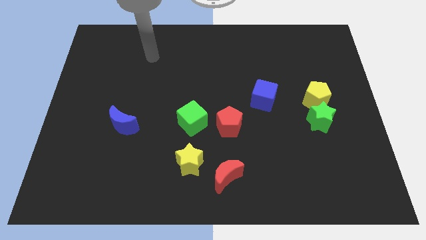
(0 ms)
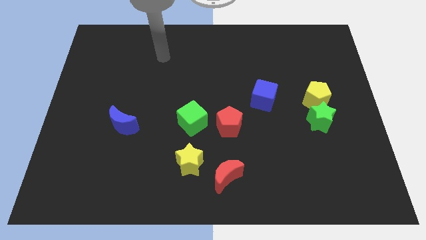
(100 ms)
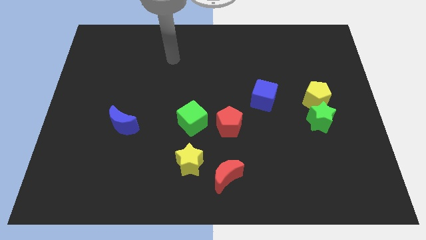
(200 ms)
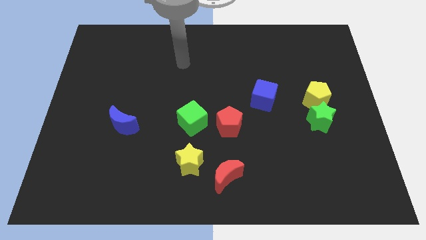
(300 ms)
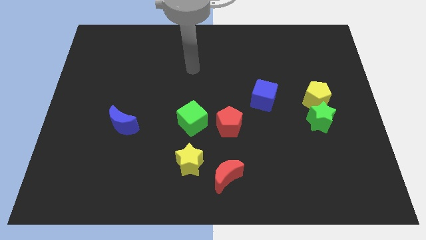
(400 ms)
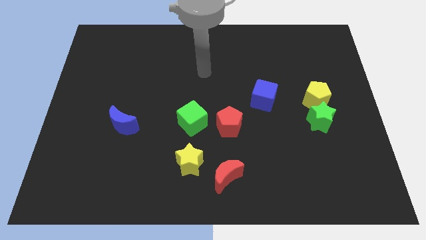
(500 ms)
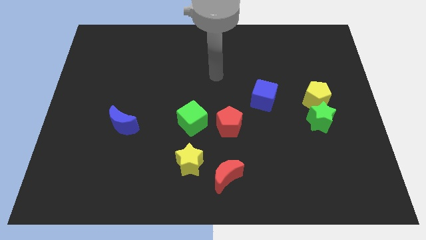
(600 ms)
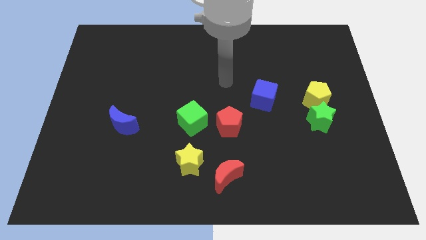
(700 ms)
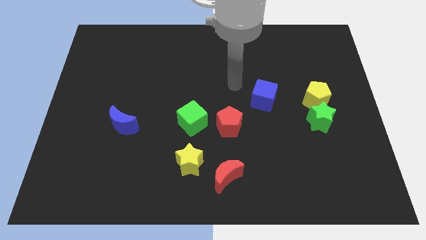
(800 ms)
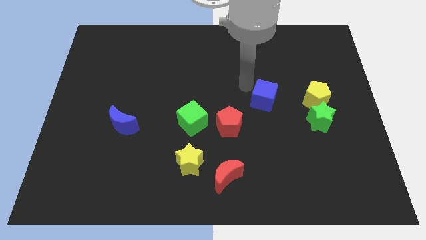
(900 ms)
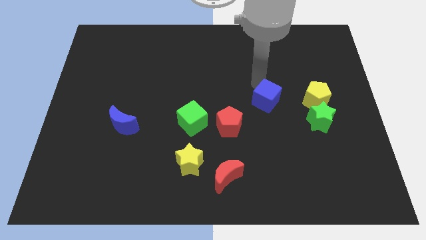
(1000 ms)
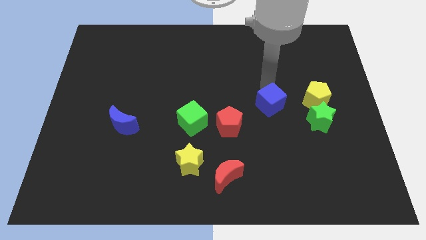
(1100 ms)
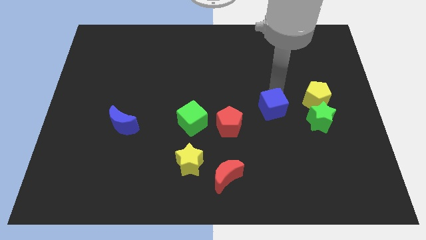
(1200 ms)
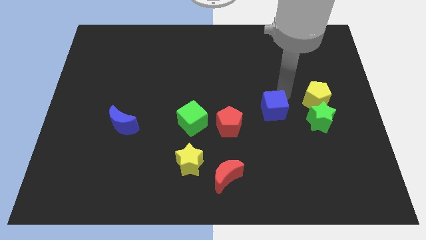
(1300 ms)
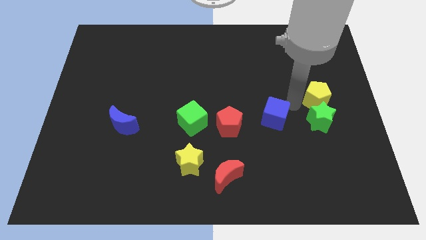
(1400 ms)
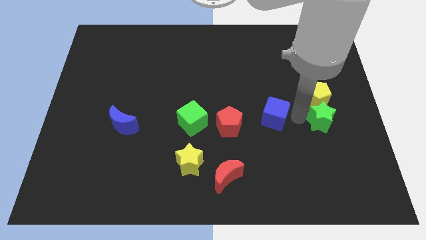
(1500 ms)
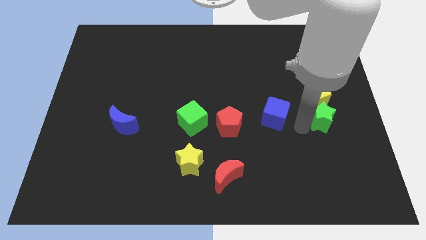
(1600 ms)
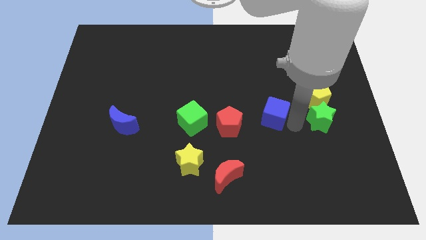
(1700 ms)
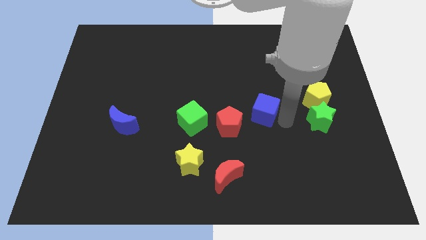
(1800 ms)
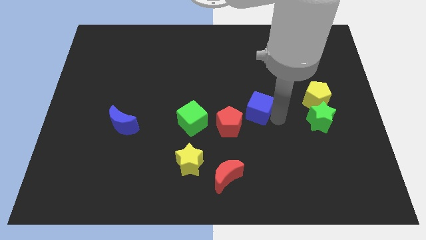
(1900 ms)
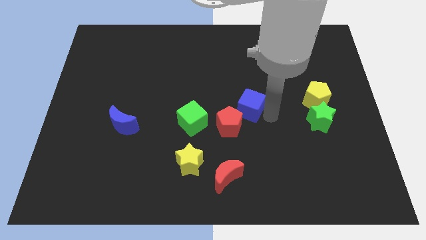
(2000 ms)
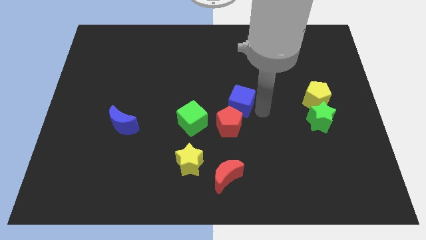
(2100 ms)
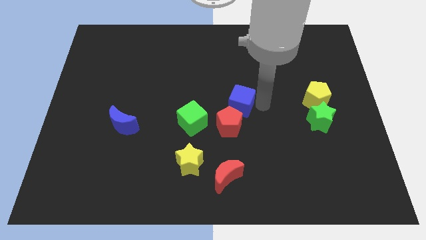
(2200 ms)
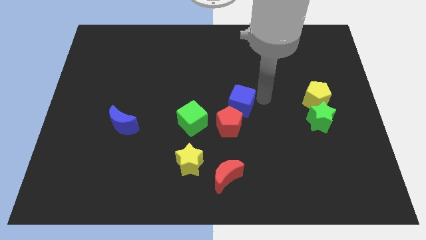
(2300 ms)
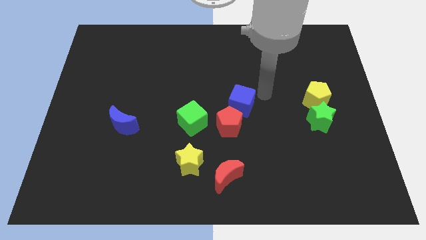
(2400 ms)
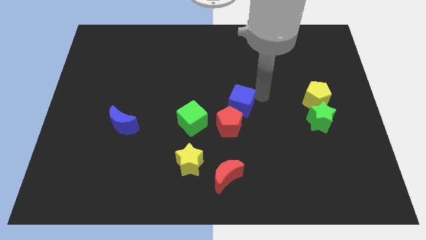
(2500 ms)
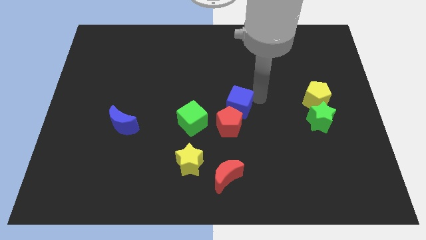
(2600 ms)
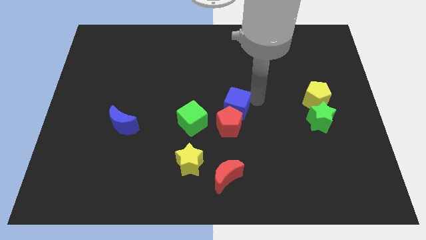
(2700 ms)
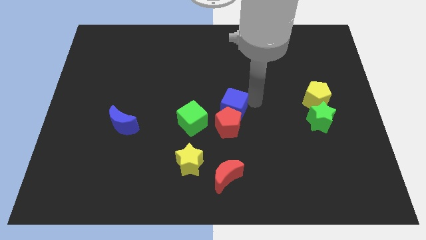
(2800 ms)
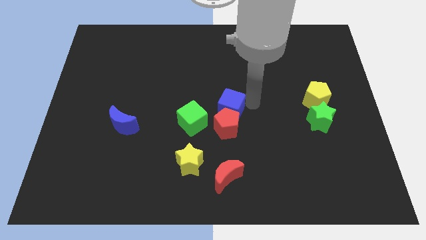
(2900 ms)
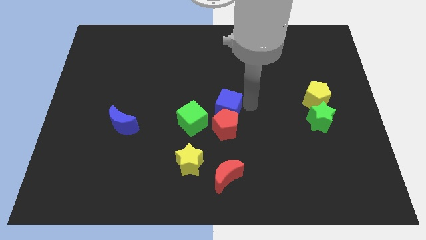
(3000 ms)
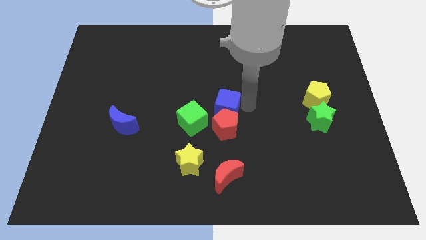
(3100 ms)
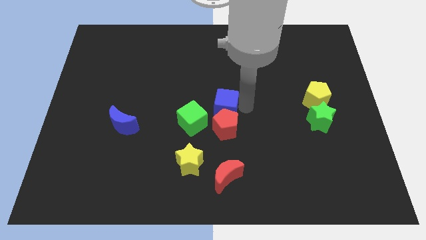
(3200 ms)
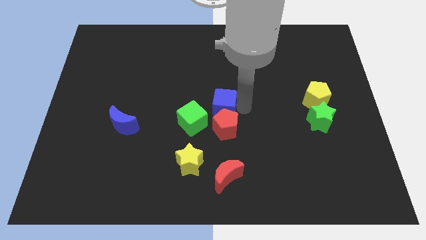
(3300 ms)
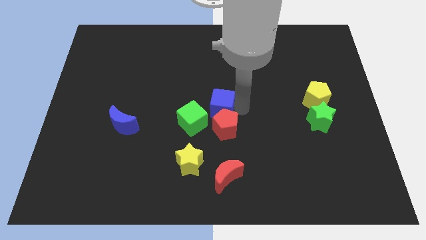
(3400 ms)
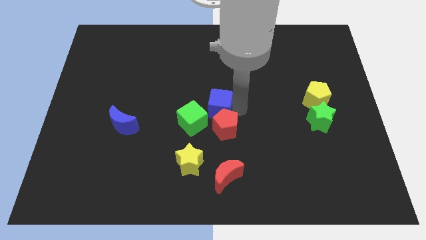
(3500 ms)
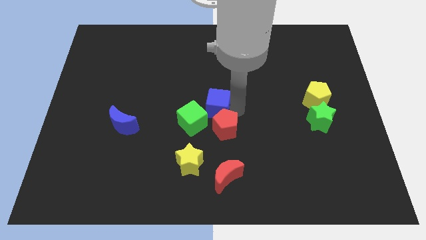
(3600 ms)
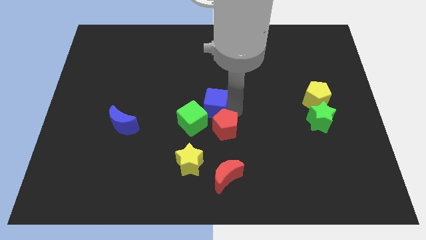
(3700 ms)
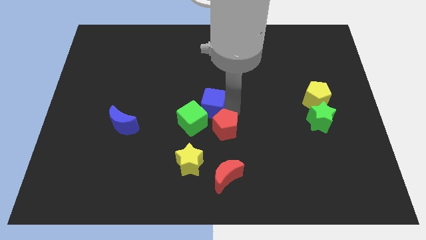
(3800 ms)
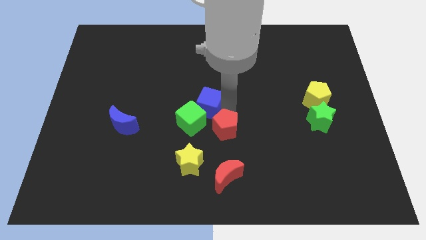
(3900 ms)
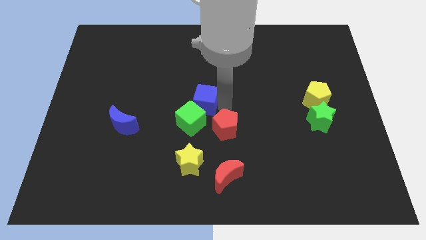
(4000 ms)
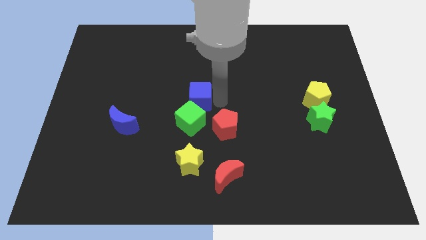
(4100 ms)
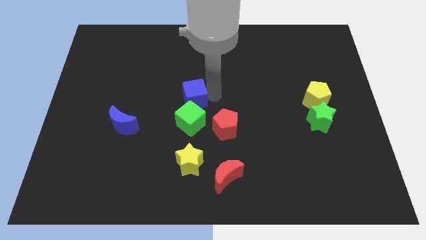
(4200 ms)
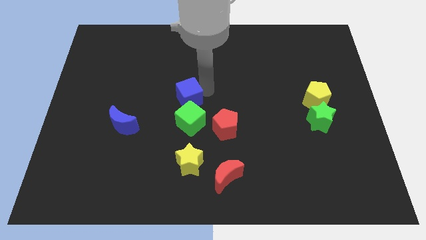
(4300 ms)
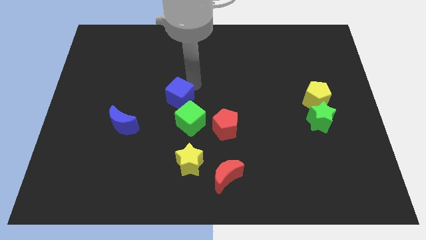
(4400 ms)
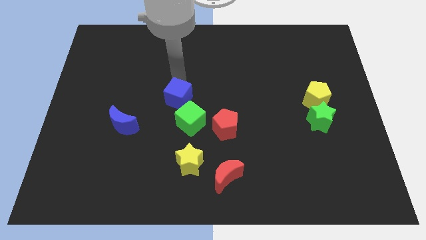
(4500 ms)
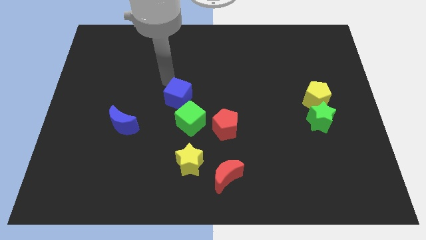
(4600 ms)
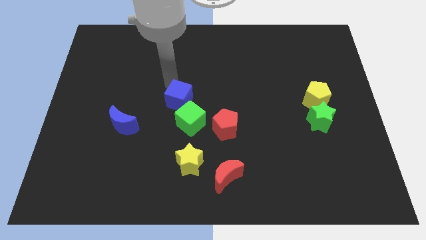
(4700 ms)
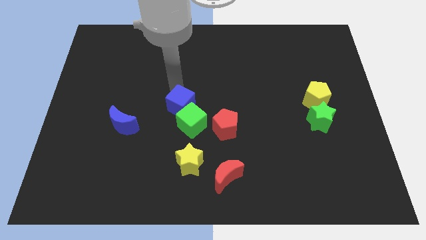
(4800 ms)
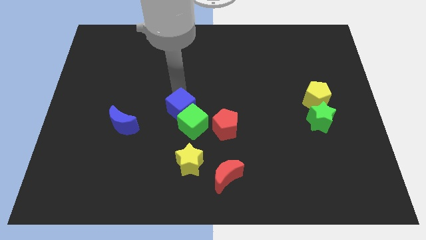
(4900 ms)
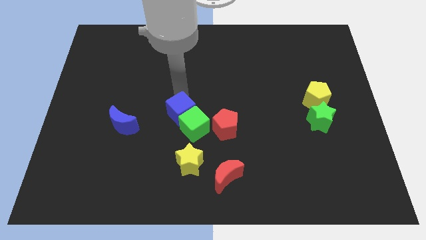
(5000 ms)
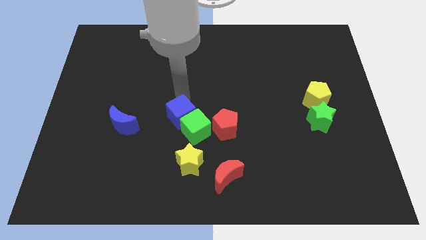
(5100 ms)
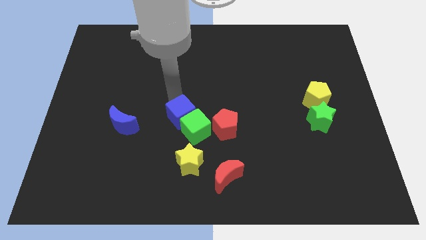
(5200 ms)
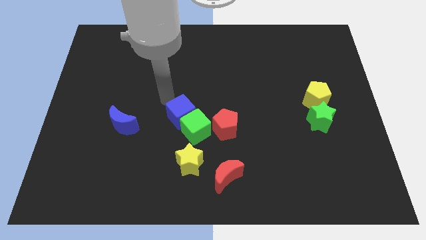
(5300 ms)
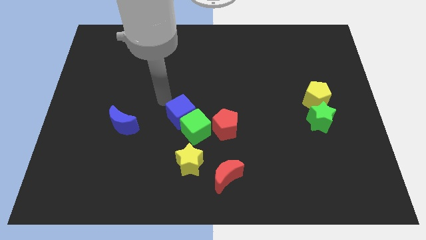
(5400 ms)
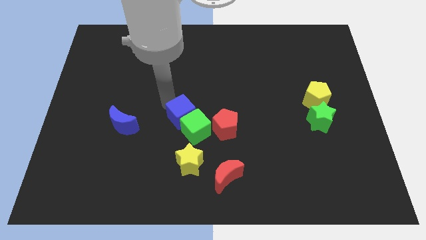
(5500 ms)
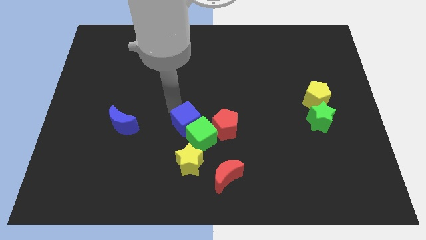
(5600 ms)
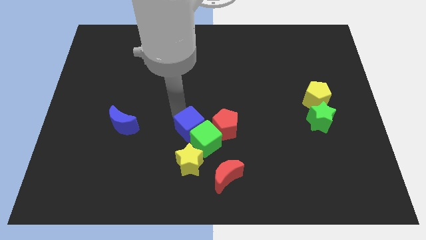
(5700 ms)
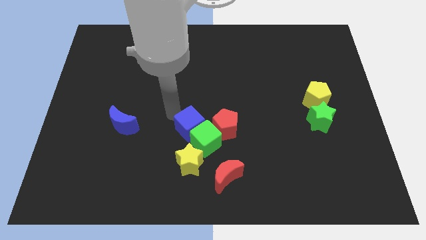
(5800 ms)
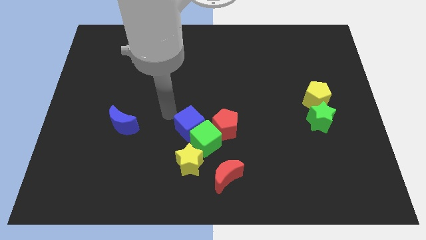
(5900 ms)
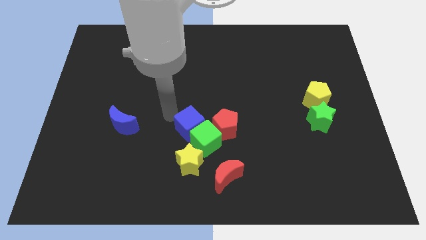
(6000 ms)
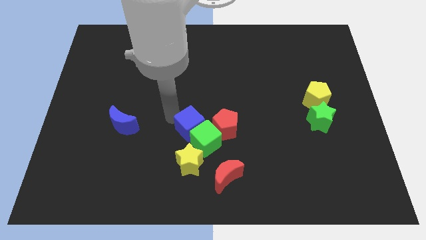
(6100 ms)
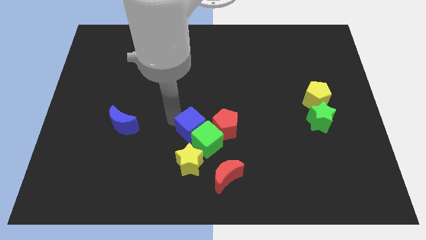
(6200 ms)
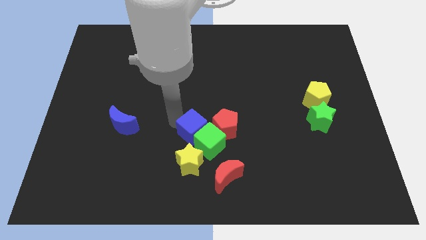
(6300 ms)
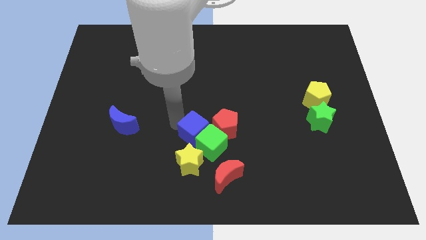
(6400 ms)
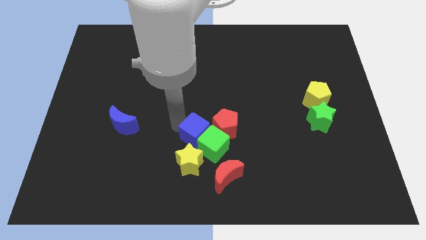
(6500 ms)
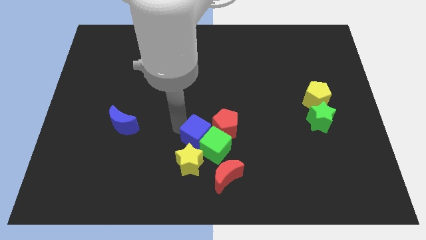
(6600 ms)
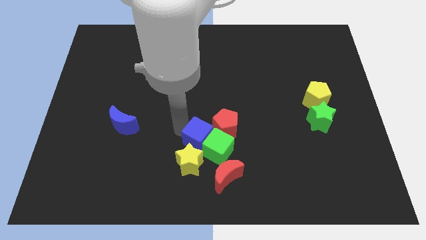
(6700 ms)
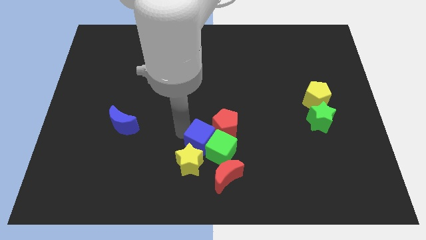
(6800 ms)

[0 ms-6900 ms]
put the blue cube next to the yellow star

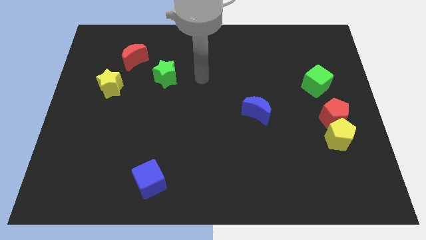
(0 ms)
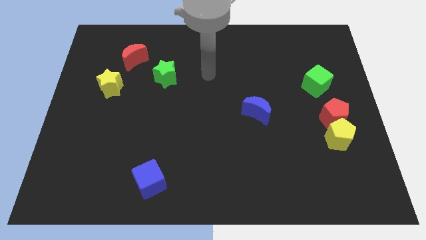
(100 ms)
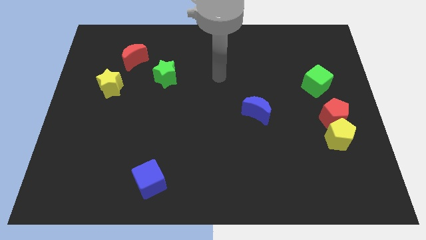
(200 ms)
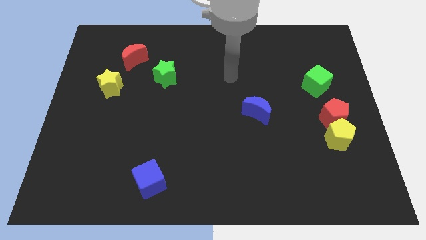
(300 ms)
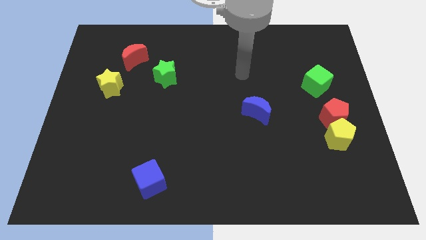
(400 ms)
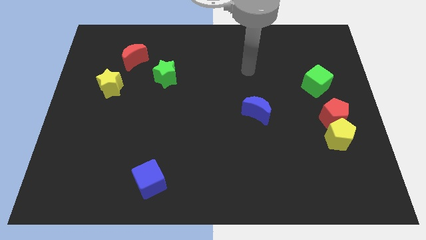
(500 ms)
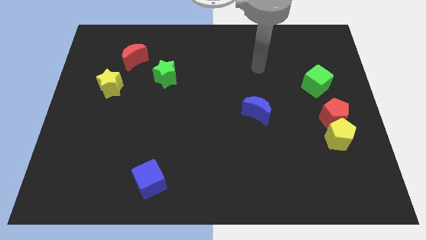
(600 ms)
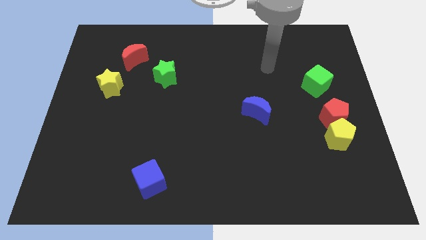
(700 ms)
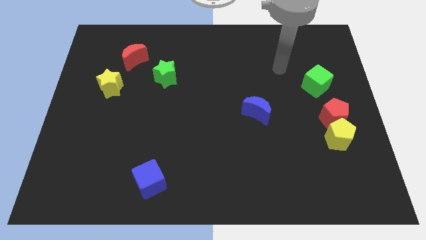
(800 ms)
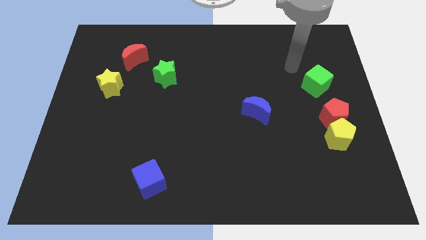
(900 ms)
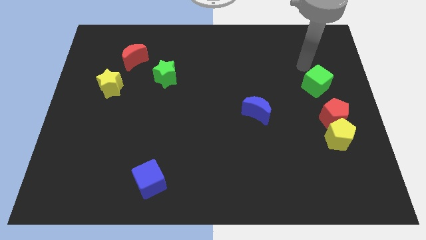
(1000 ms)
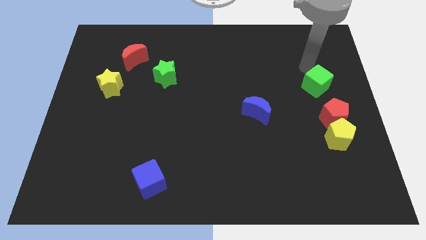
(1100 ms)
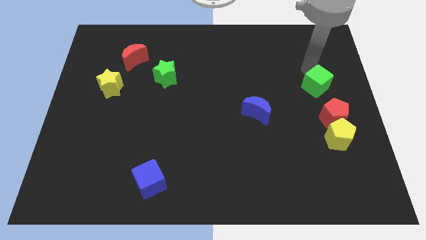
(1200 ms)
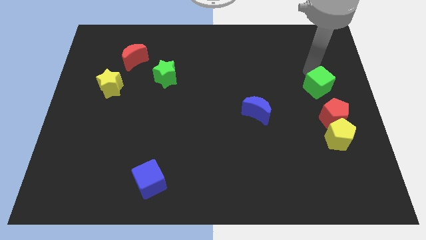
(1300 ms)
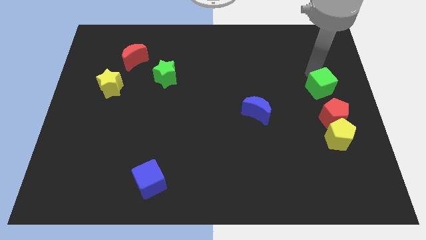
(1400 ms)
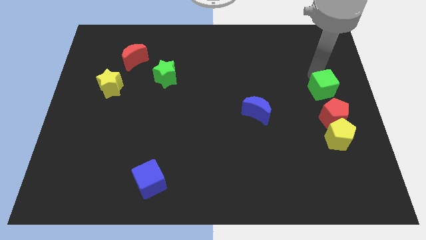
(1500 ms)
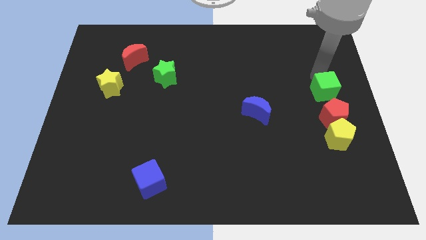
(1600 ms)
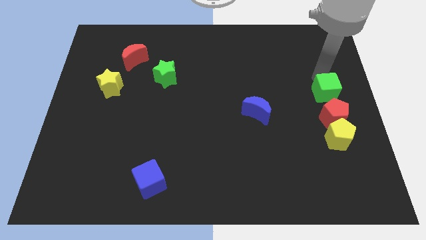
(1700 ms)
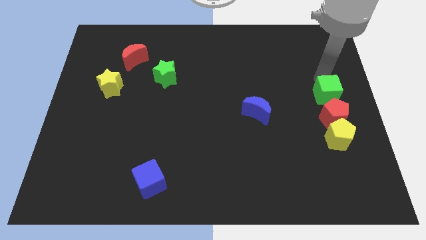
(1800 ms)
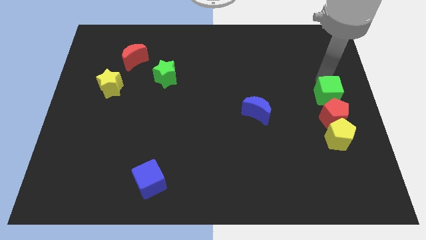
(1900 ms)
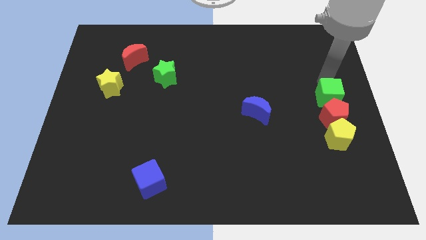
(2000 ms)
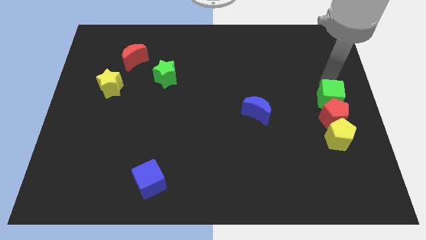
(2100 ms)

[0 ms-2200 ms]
push the green cube towards the red pentagon
